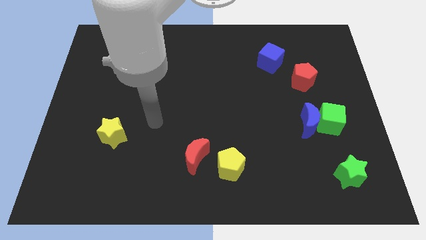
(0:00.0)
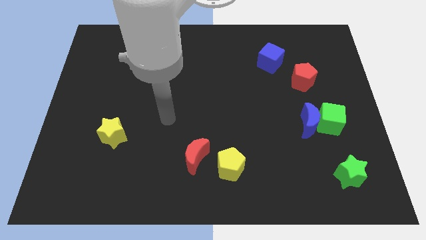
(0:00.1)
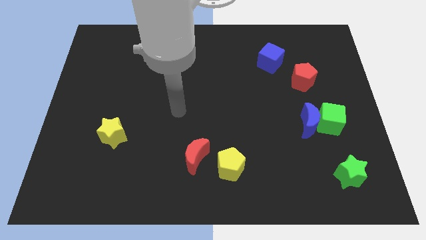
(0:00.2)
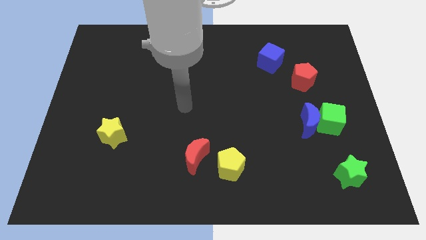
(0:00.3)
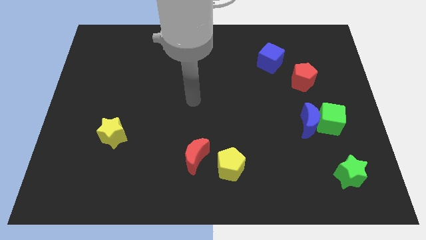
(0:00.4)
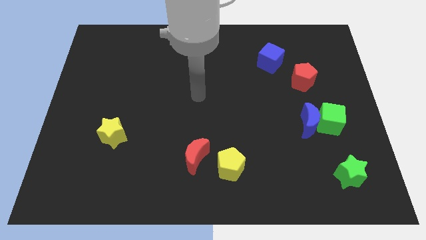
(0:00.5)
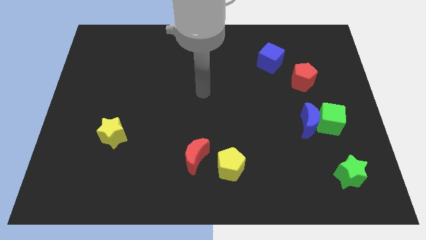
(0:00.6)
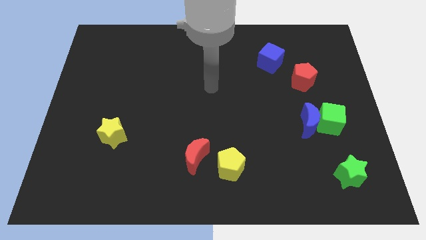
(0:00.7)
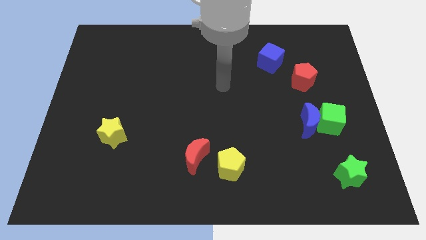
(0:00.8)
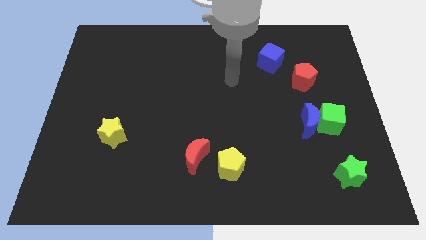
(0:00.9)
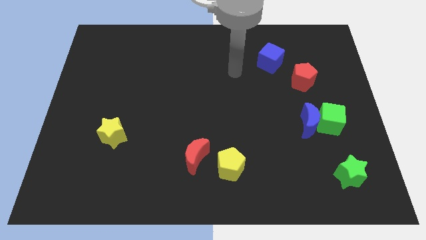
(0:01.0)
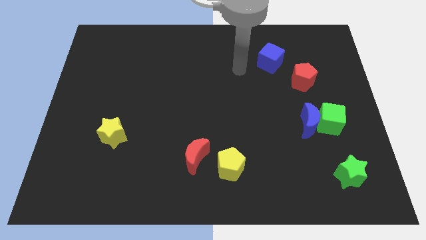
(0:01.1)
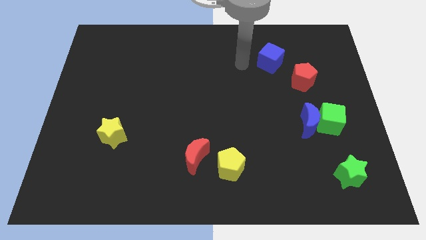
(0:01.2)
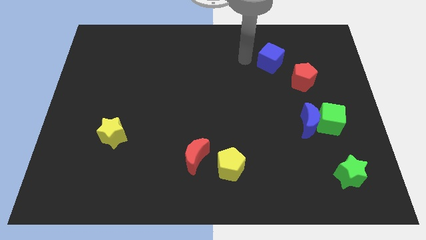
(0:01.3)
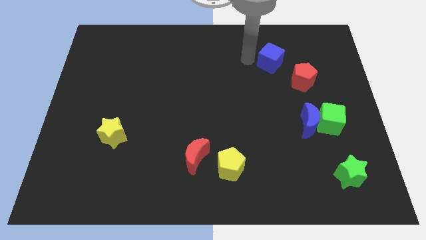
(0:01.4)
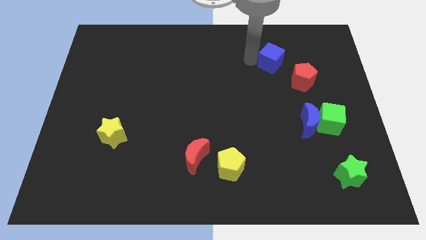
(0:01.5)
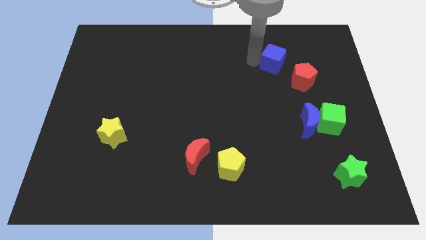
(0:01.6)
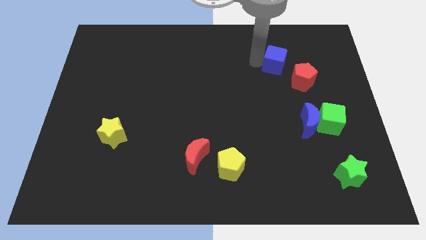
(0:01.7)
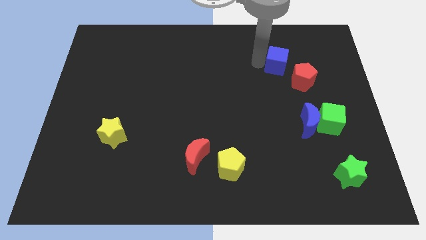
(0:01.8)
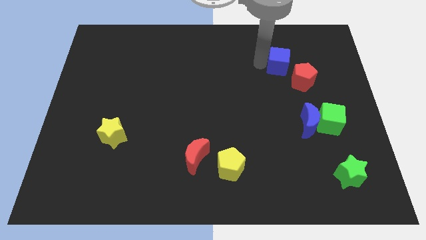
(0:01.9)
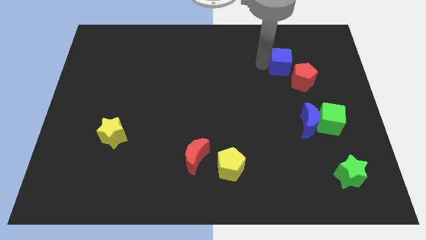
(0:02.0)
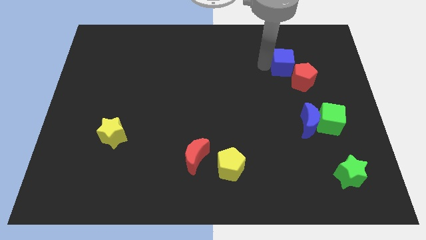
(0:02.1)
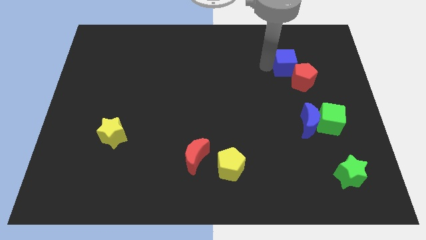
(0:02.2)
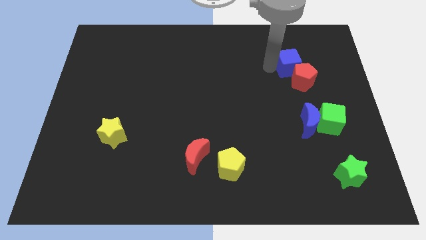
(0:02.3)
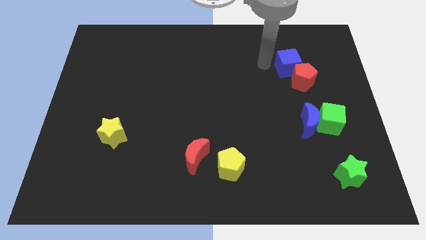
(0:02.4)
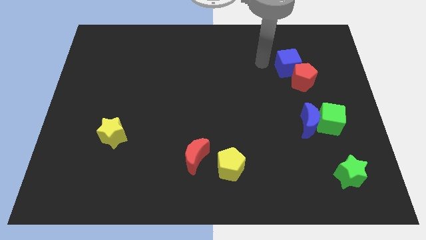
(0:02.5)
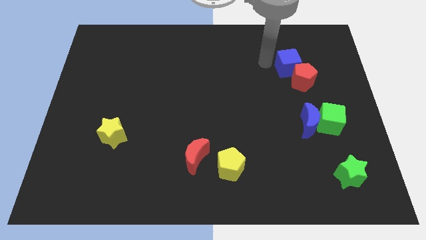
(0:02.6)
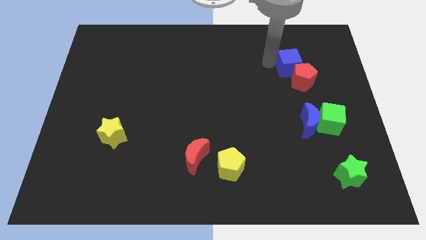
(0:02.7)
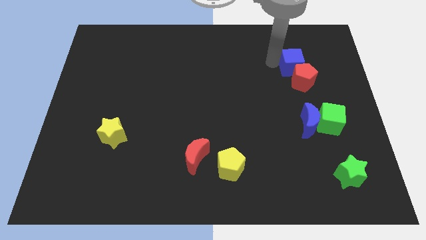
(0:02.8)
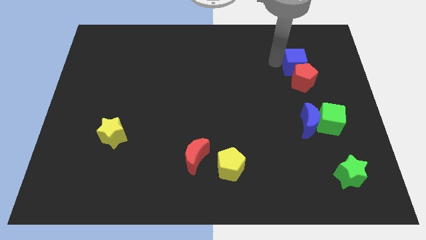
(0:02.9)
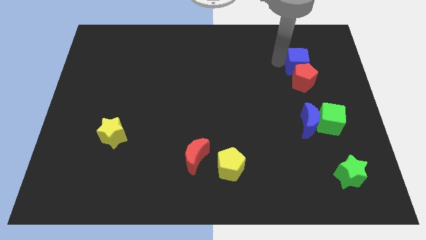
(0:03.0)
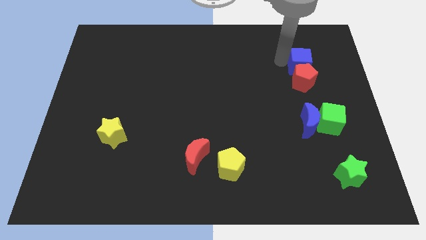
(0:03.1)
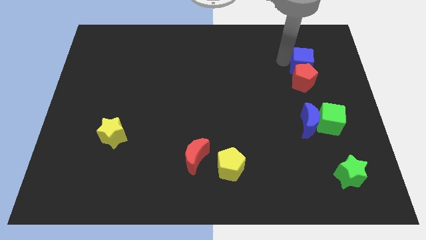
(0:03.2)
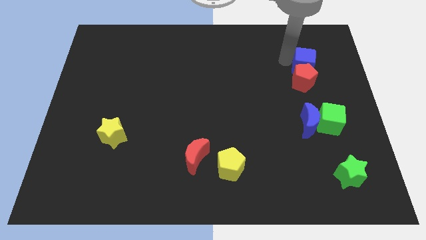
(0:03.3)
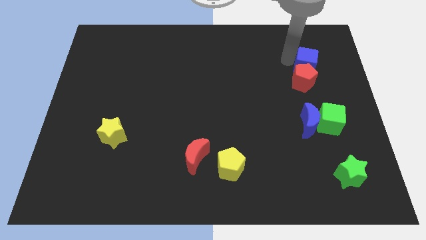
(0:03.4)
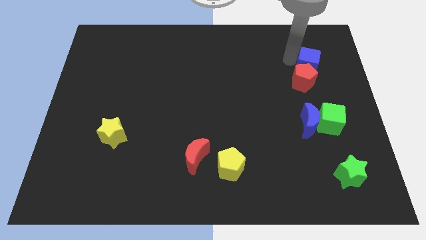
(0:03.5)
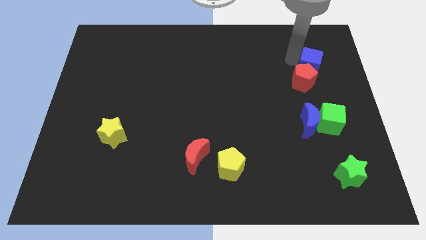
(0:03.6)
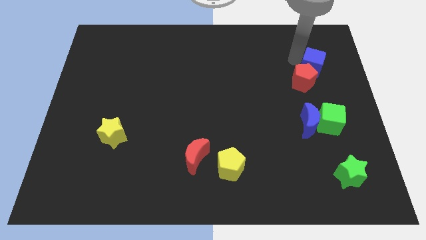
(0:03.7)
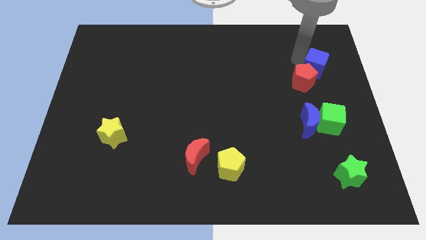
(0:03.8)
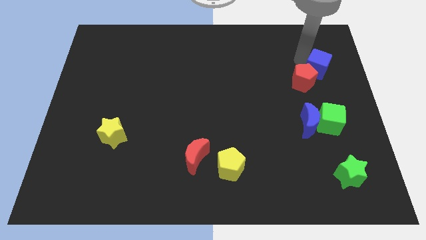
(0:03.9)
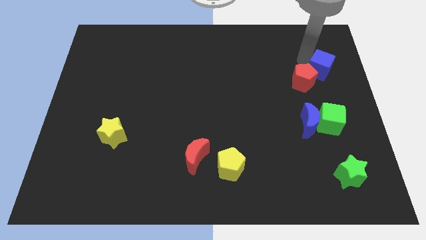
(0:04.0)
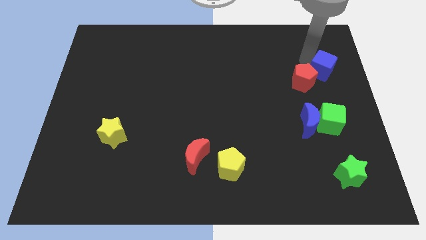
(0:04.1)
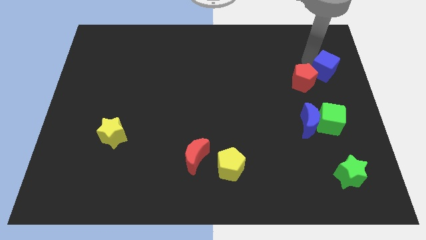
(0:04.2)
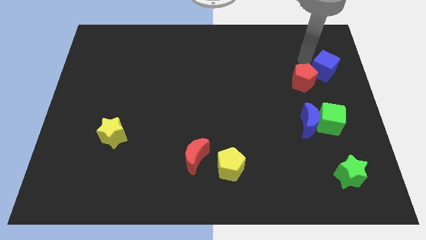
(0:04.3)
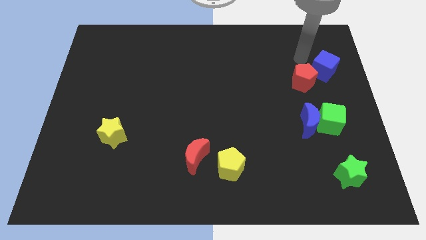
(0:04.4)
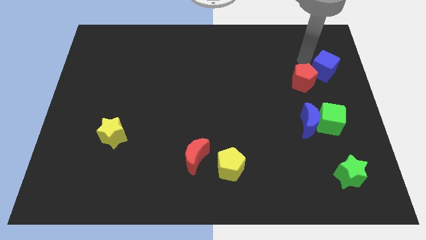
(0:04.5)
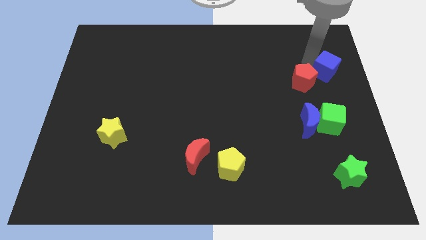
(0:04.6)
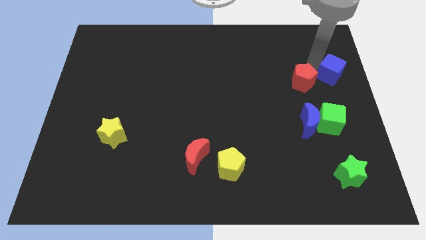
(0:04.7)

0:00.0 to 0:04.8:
put the blue cube to the center right

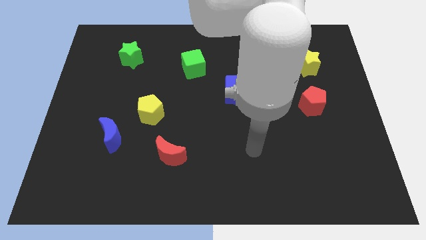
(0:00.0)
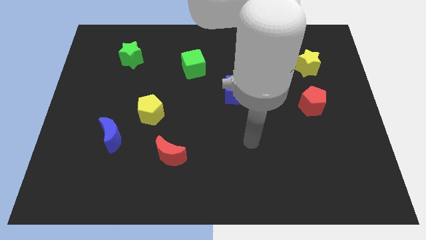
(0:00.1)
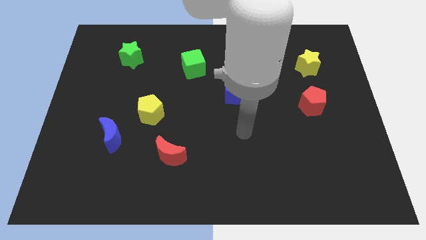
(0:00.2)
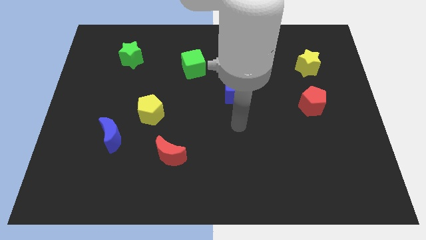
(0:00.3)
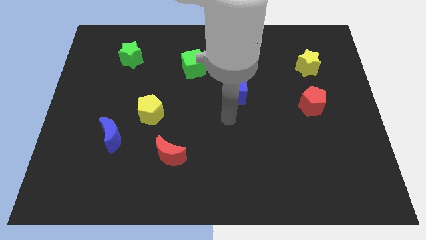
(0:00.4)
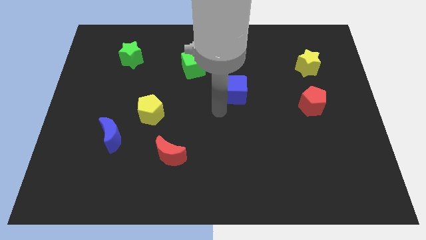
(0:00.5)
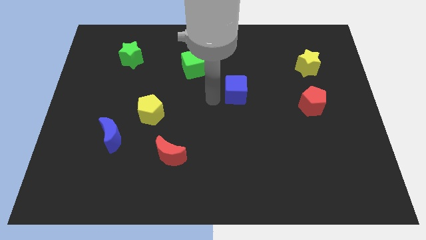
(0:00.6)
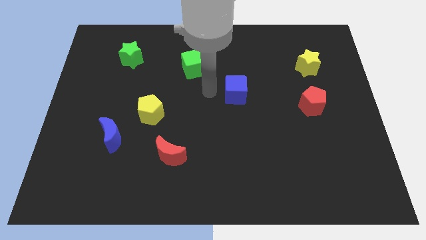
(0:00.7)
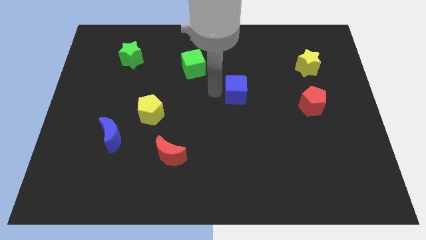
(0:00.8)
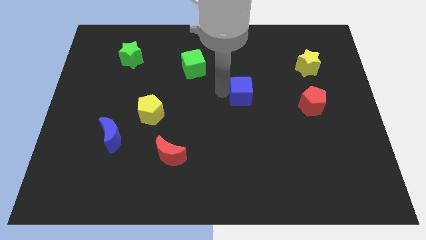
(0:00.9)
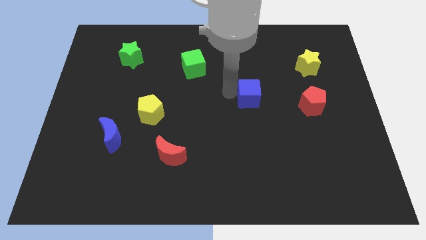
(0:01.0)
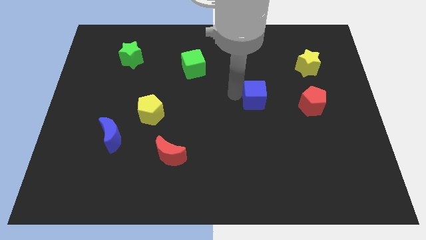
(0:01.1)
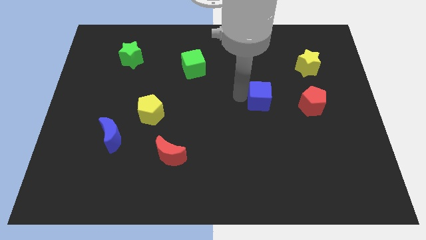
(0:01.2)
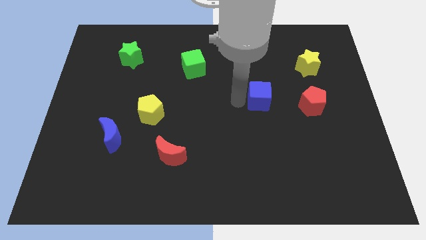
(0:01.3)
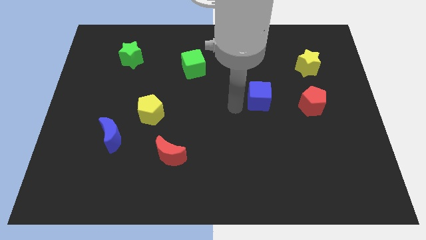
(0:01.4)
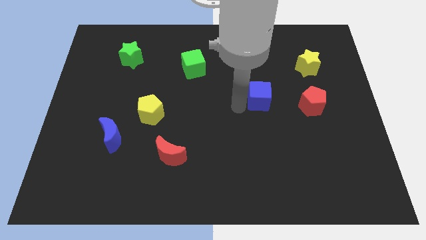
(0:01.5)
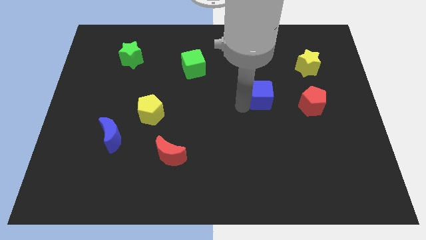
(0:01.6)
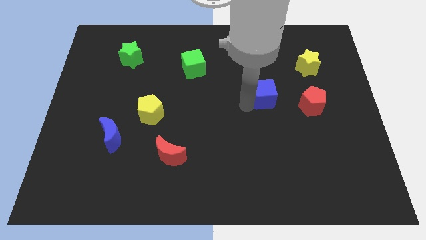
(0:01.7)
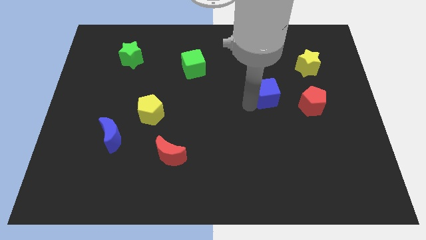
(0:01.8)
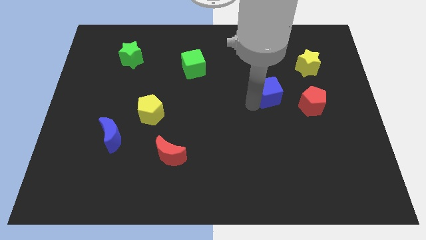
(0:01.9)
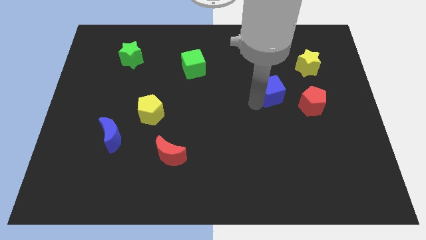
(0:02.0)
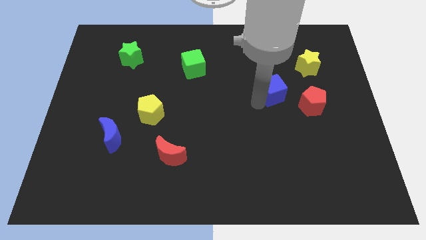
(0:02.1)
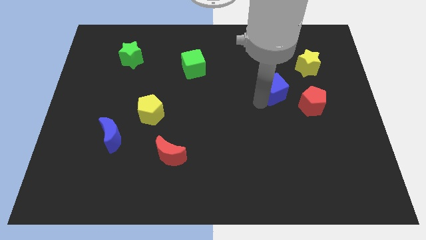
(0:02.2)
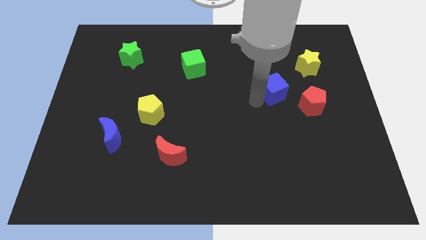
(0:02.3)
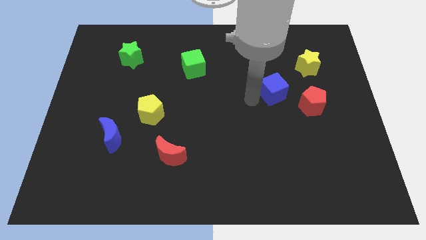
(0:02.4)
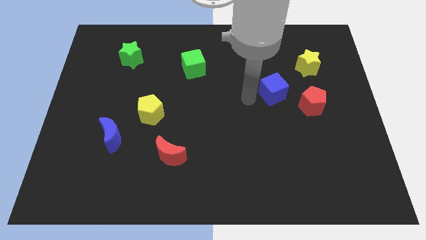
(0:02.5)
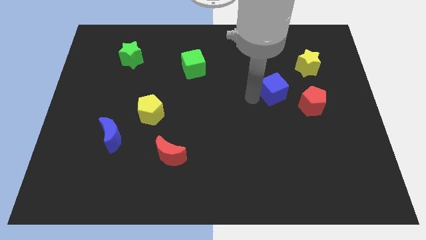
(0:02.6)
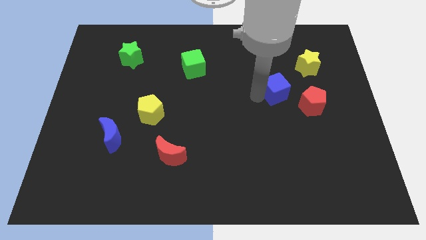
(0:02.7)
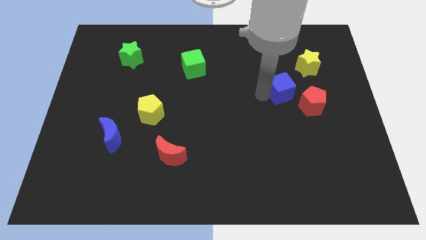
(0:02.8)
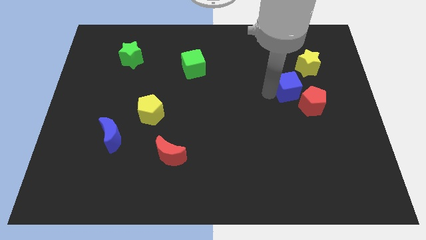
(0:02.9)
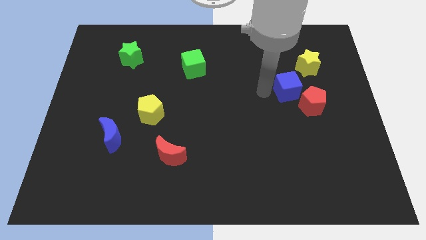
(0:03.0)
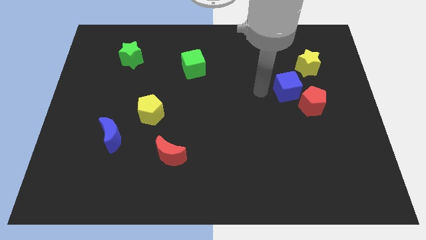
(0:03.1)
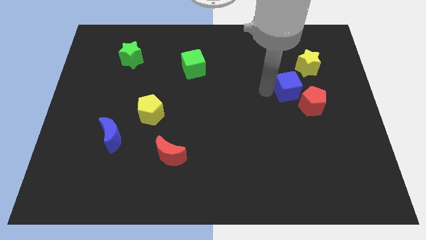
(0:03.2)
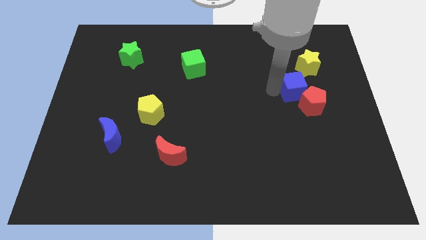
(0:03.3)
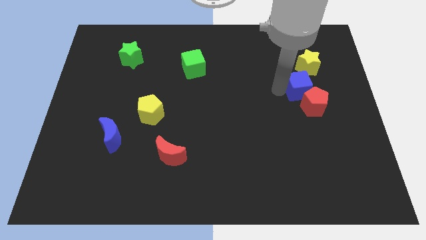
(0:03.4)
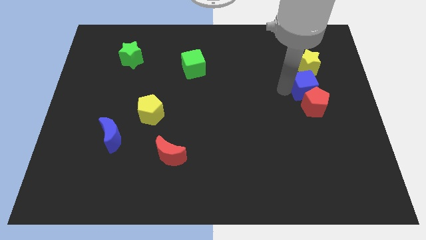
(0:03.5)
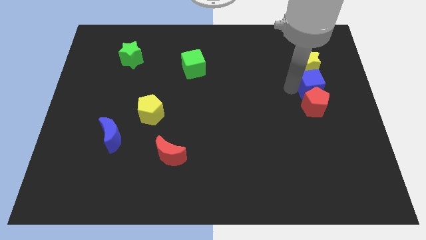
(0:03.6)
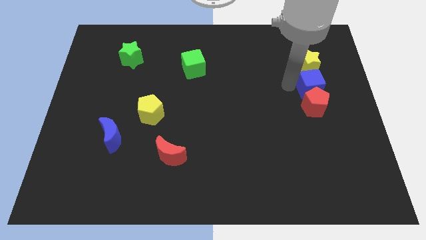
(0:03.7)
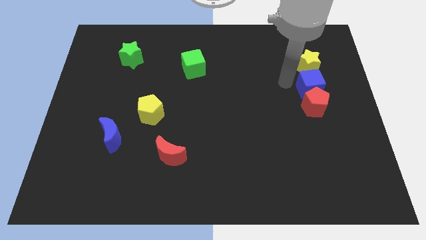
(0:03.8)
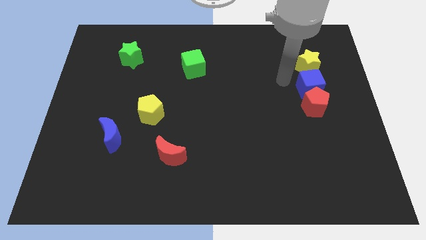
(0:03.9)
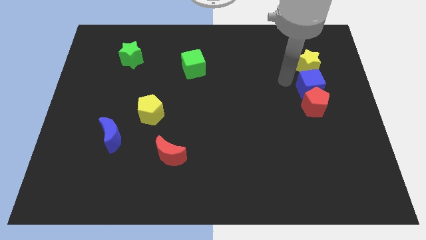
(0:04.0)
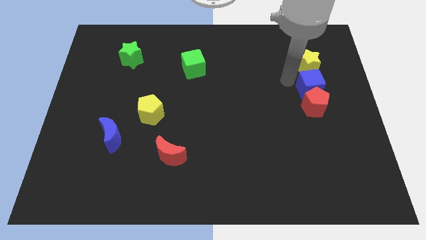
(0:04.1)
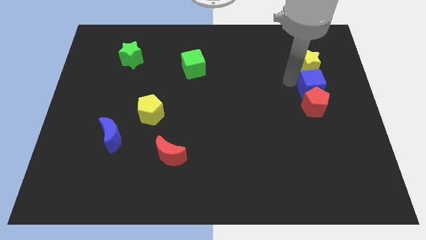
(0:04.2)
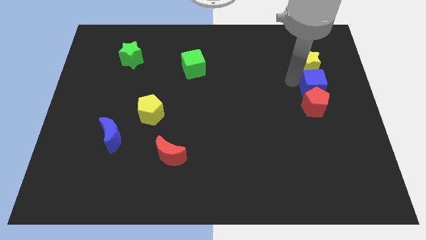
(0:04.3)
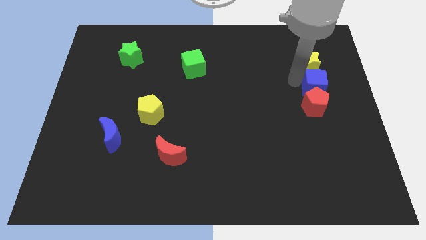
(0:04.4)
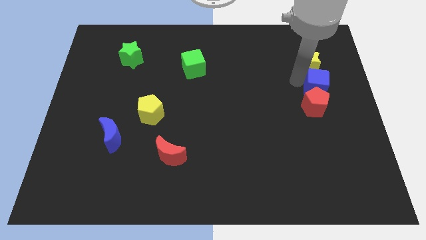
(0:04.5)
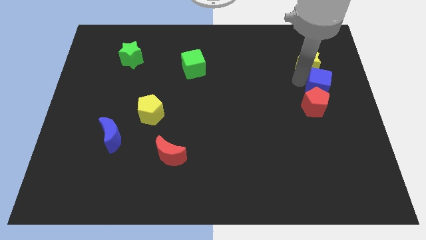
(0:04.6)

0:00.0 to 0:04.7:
slide the blue cube to the right side of the board
